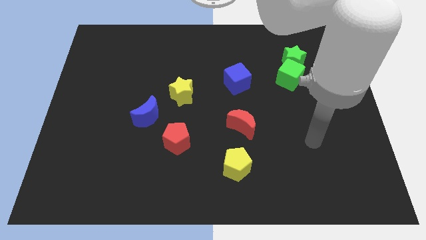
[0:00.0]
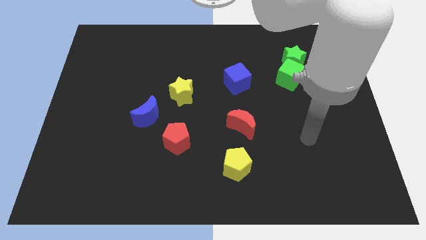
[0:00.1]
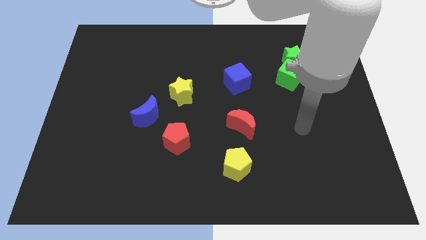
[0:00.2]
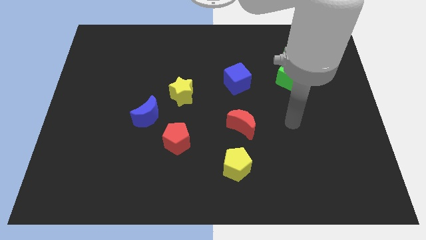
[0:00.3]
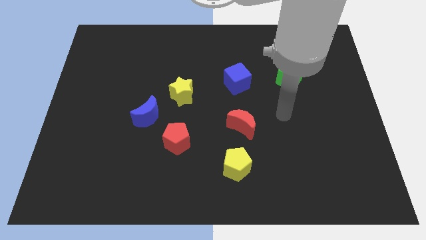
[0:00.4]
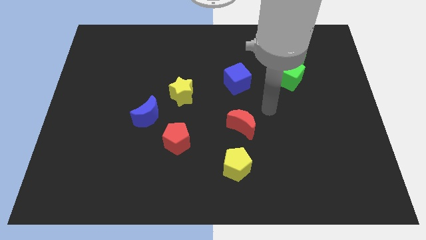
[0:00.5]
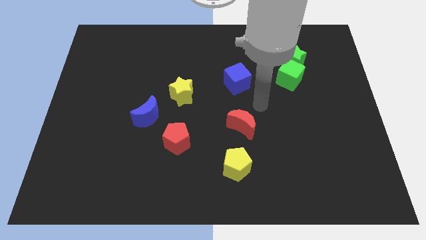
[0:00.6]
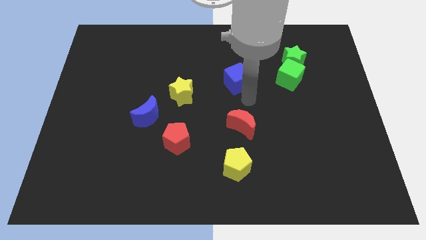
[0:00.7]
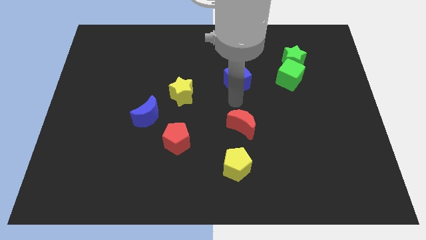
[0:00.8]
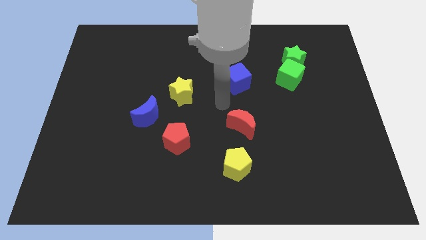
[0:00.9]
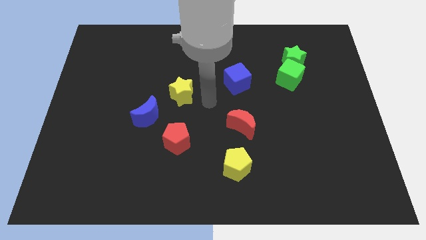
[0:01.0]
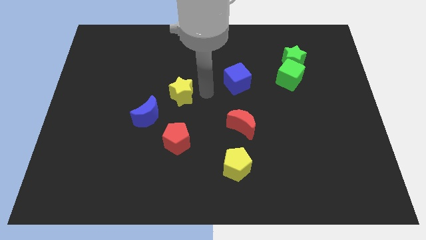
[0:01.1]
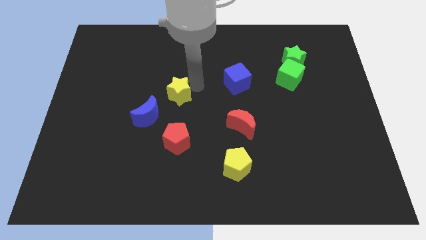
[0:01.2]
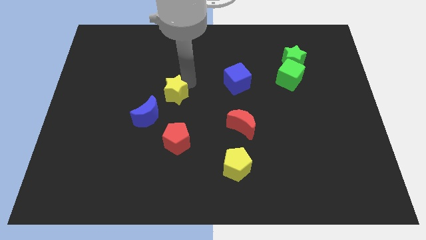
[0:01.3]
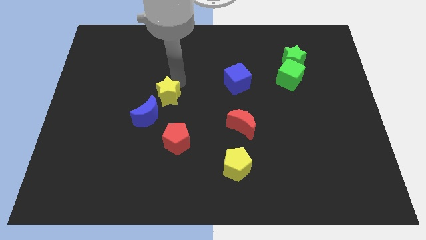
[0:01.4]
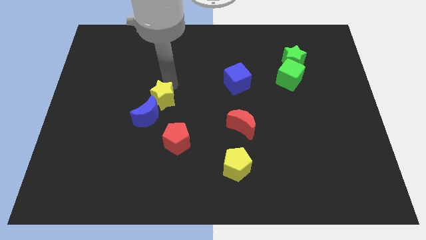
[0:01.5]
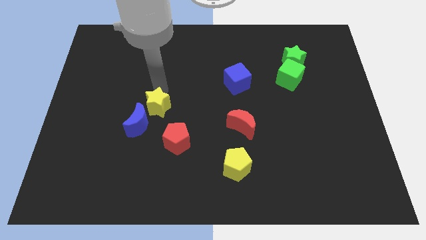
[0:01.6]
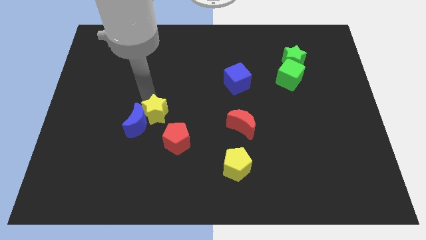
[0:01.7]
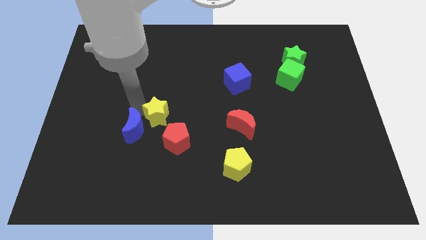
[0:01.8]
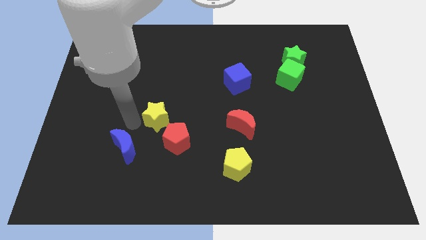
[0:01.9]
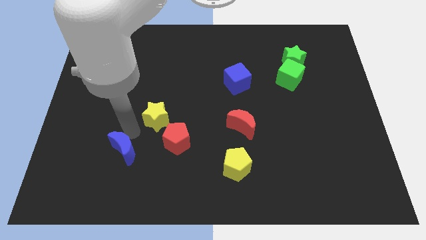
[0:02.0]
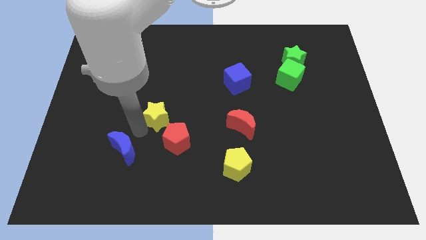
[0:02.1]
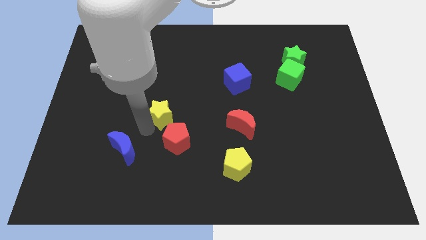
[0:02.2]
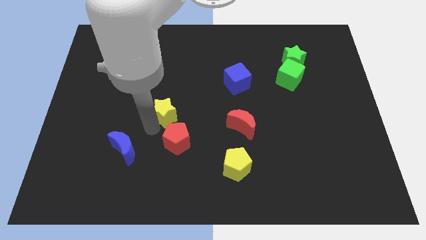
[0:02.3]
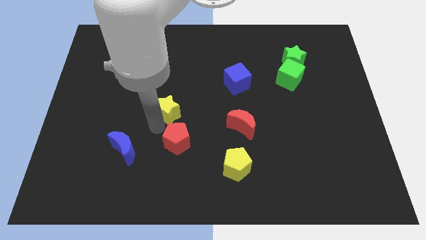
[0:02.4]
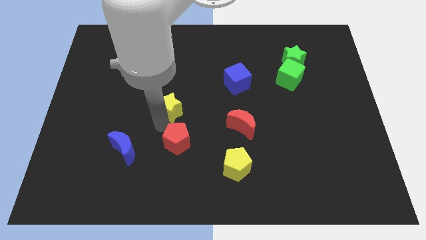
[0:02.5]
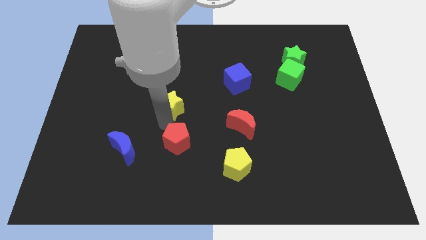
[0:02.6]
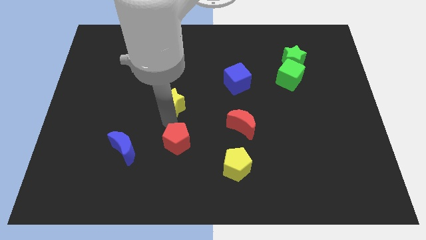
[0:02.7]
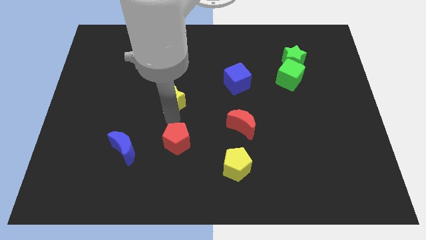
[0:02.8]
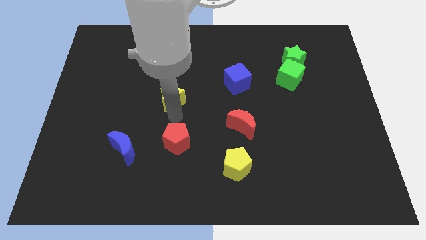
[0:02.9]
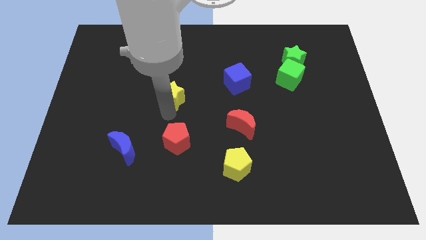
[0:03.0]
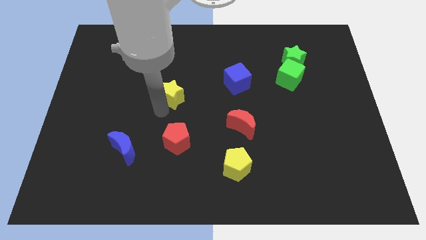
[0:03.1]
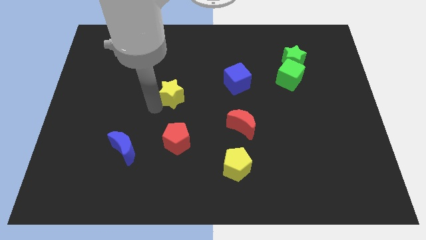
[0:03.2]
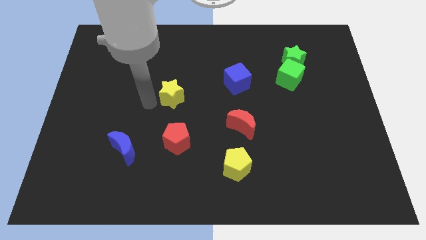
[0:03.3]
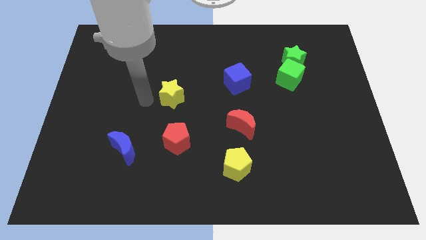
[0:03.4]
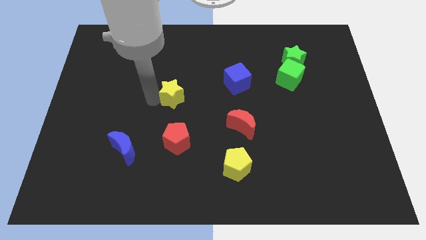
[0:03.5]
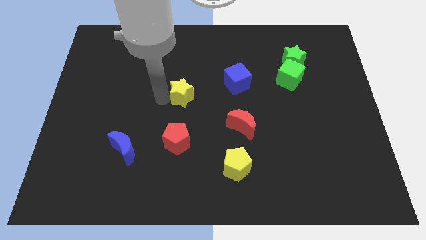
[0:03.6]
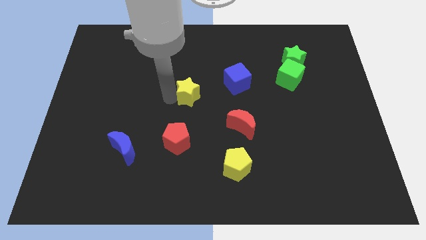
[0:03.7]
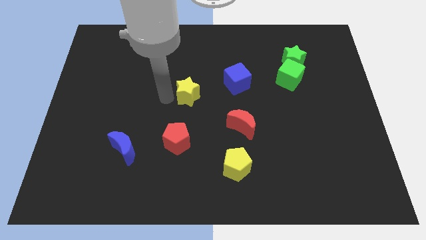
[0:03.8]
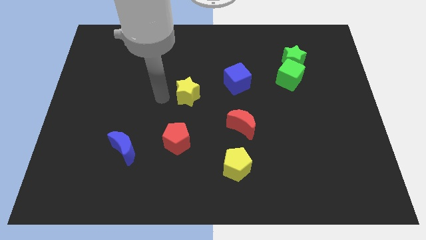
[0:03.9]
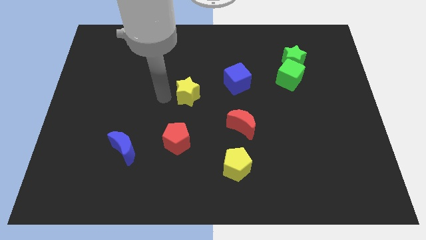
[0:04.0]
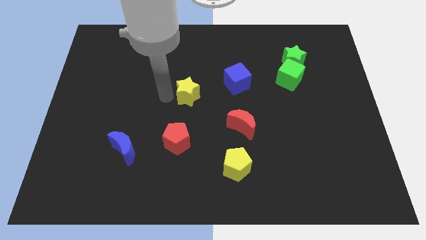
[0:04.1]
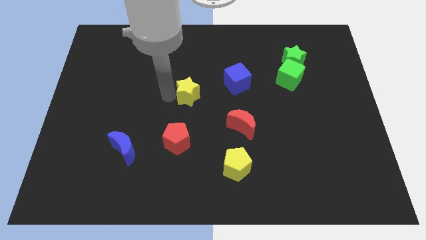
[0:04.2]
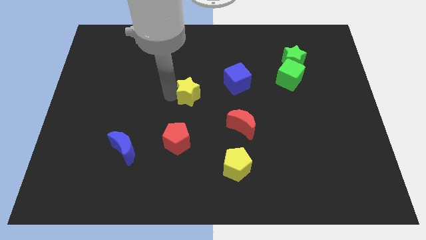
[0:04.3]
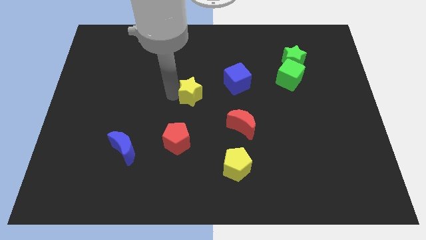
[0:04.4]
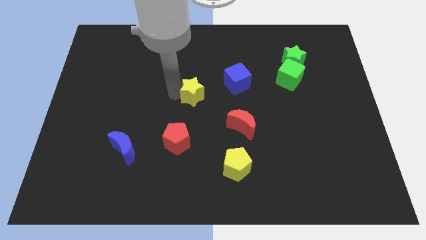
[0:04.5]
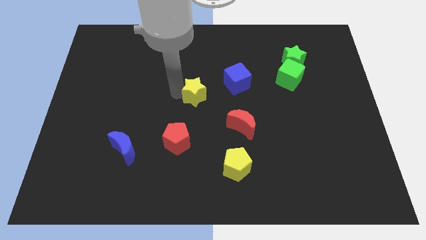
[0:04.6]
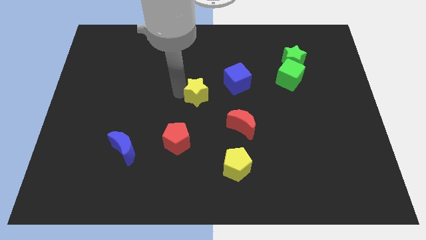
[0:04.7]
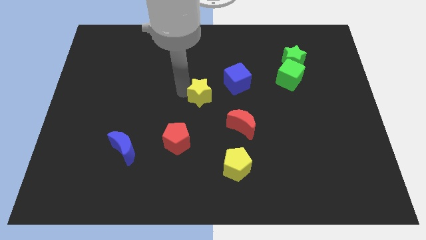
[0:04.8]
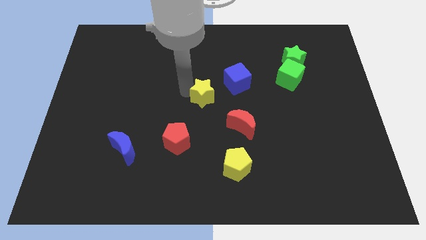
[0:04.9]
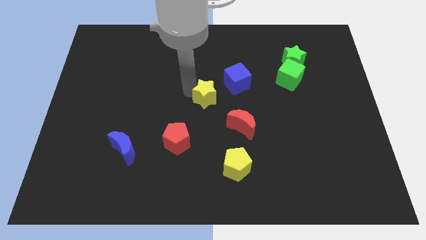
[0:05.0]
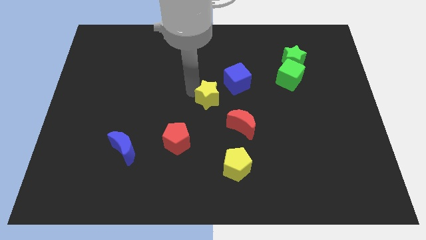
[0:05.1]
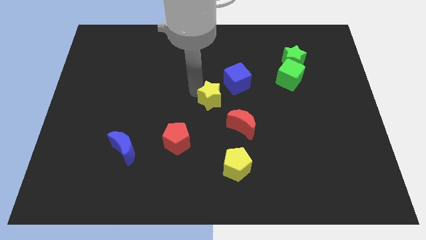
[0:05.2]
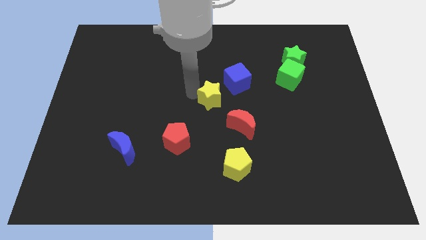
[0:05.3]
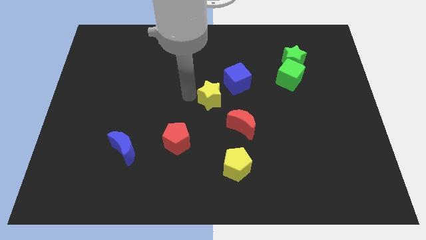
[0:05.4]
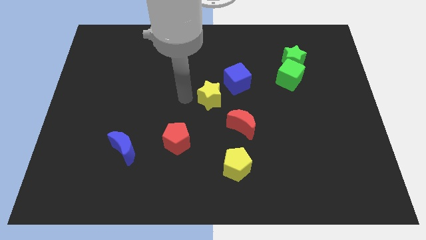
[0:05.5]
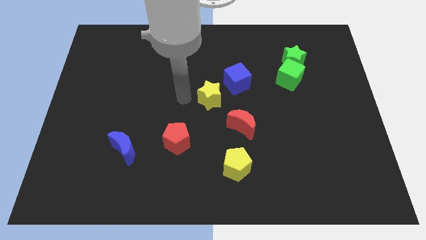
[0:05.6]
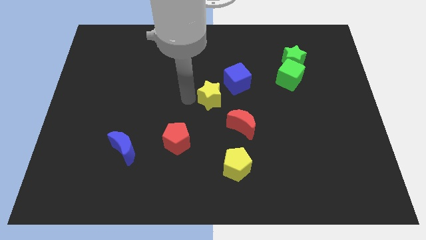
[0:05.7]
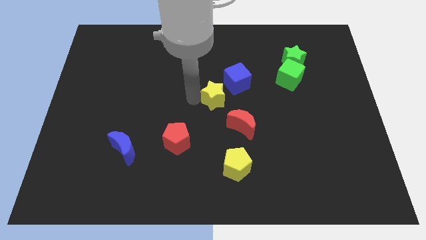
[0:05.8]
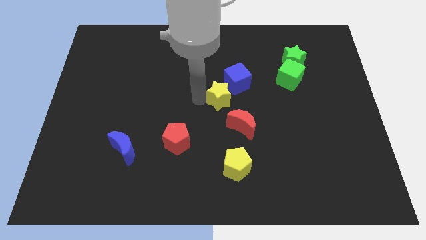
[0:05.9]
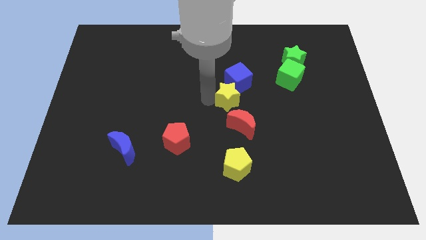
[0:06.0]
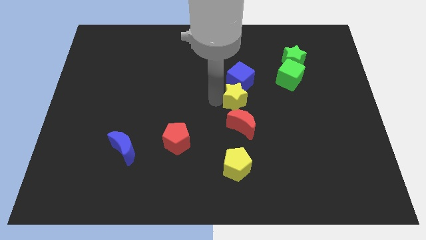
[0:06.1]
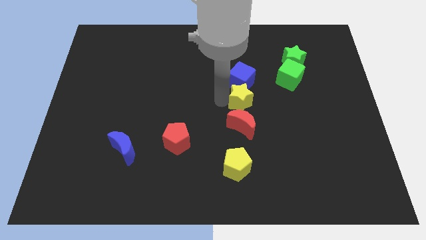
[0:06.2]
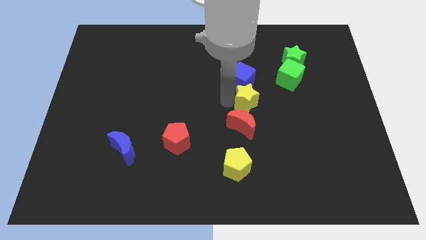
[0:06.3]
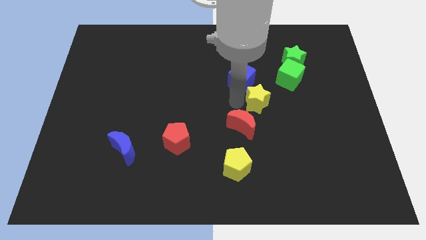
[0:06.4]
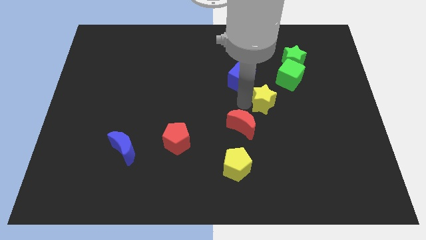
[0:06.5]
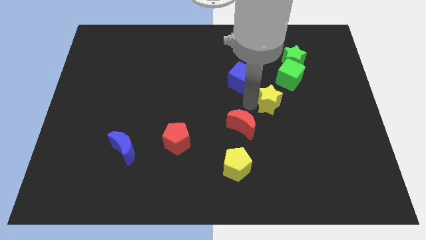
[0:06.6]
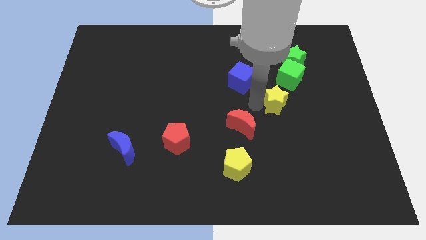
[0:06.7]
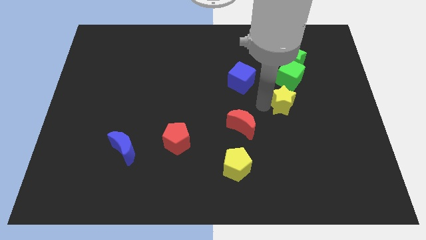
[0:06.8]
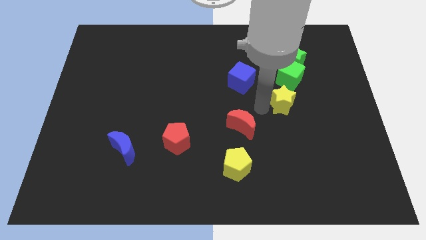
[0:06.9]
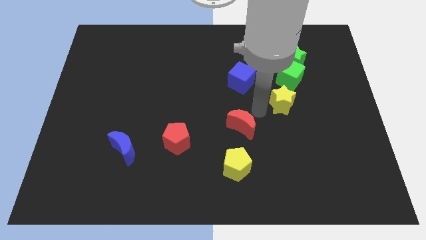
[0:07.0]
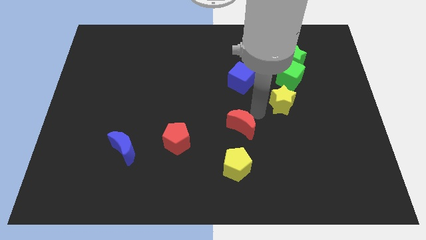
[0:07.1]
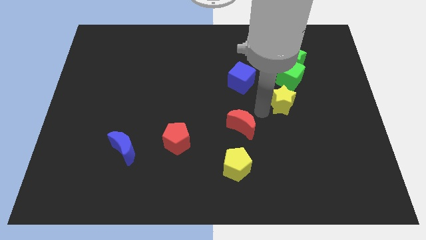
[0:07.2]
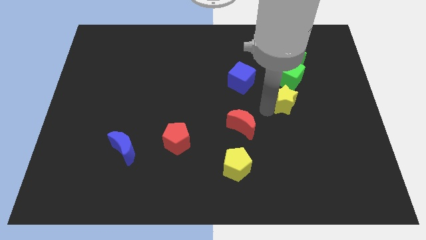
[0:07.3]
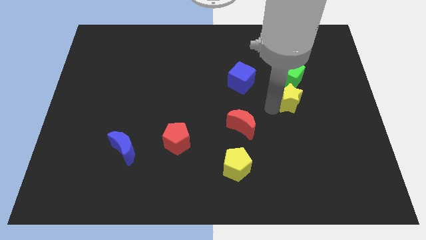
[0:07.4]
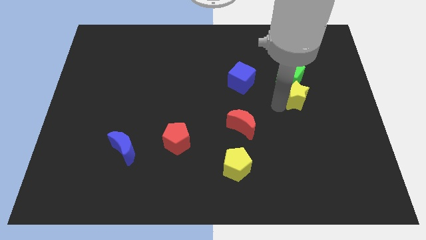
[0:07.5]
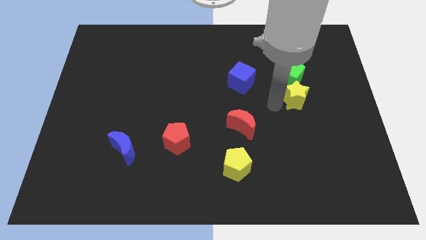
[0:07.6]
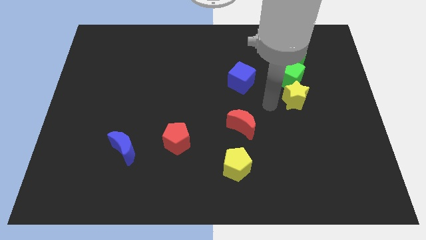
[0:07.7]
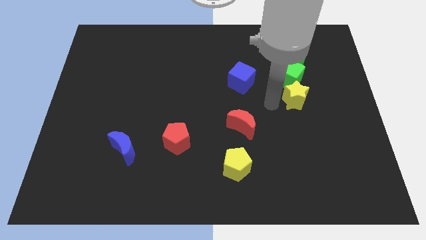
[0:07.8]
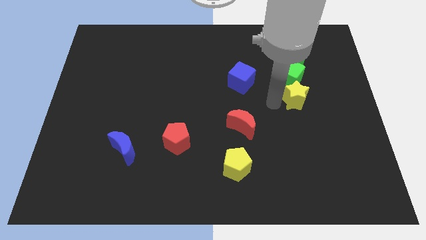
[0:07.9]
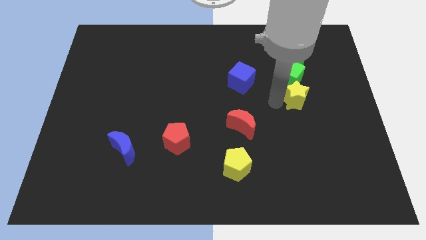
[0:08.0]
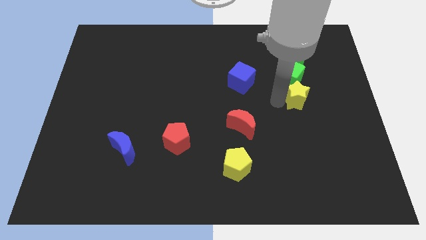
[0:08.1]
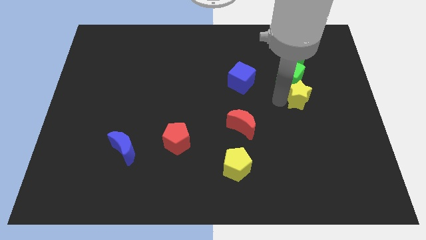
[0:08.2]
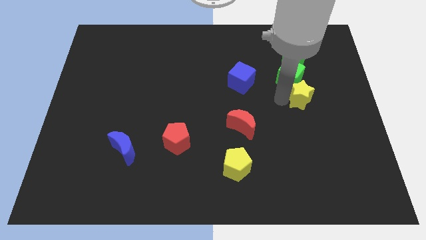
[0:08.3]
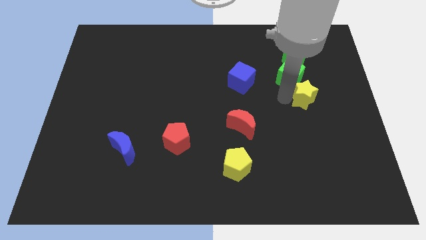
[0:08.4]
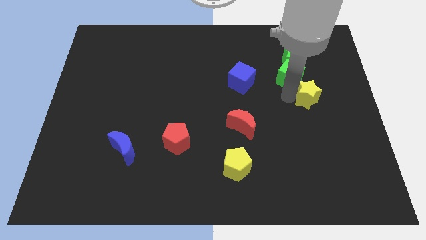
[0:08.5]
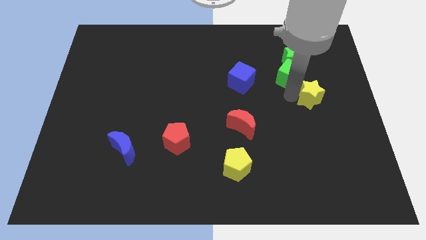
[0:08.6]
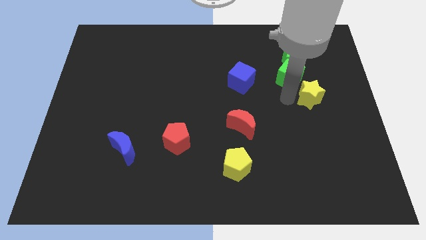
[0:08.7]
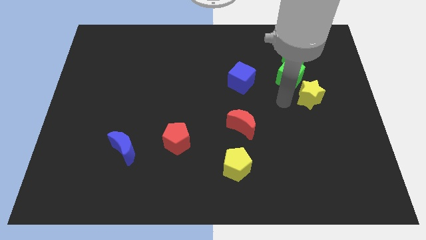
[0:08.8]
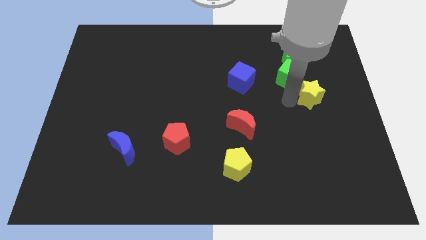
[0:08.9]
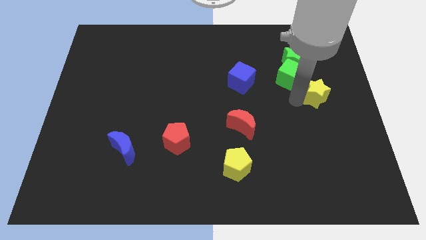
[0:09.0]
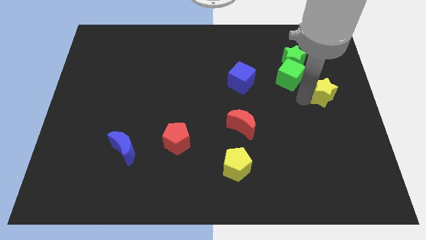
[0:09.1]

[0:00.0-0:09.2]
push the yellow star to the right side
